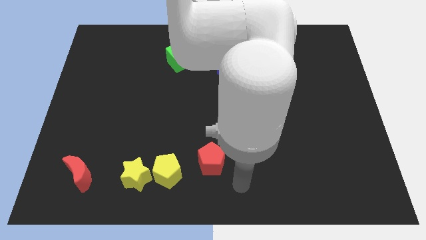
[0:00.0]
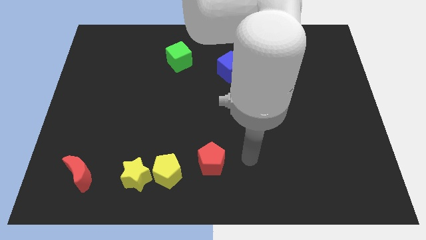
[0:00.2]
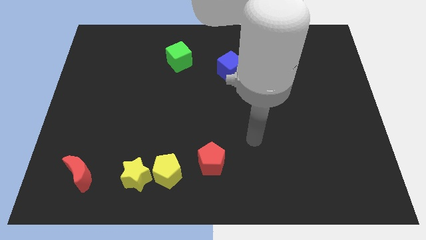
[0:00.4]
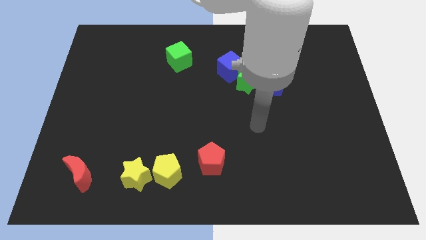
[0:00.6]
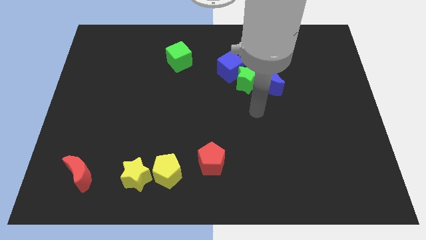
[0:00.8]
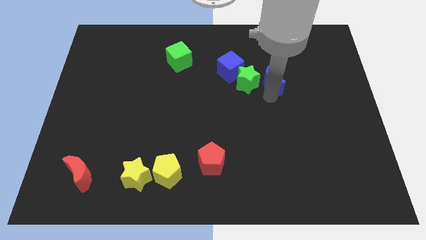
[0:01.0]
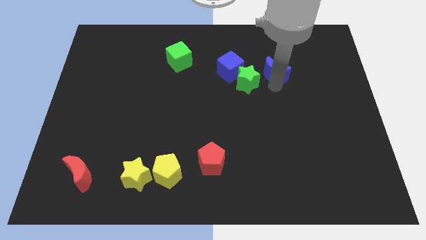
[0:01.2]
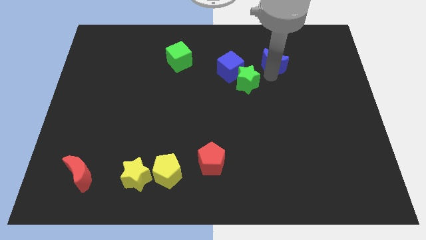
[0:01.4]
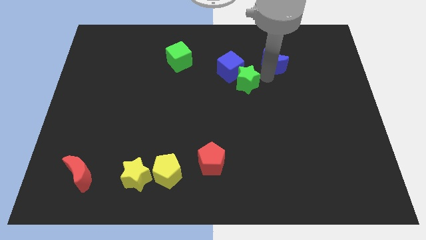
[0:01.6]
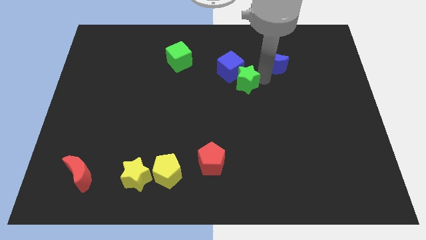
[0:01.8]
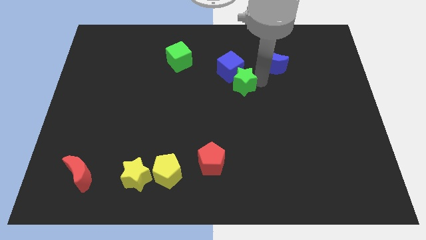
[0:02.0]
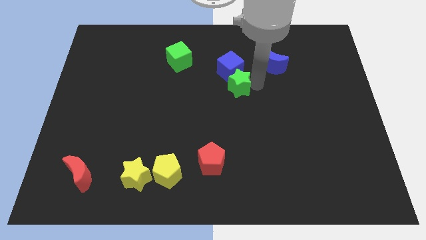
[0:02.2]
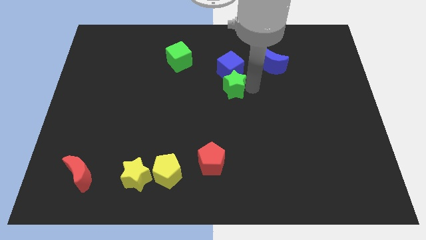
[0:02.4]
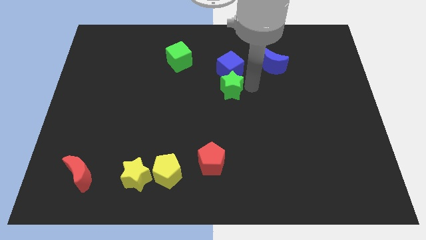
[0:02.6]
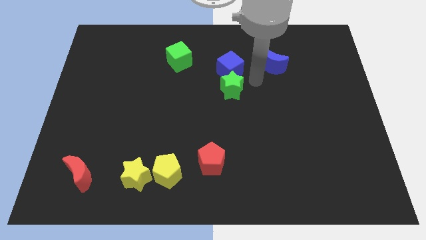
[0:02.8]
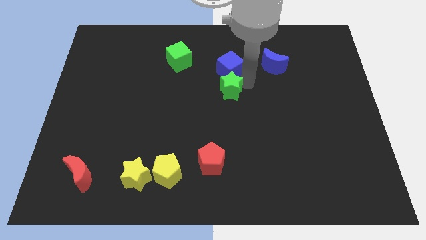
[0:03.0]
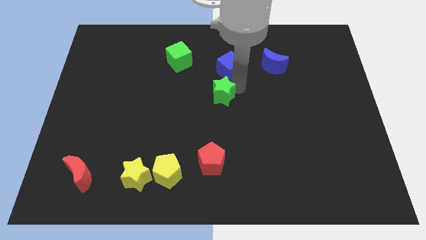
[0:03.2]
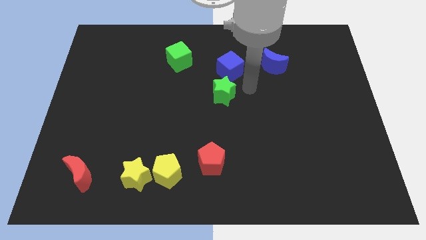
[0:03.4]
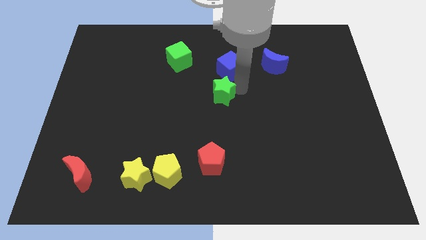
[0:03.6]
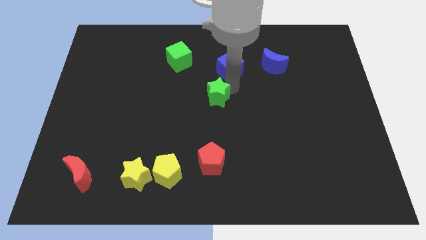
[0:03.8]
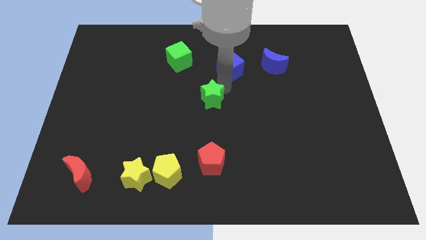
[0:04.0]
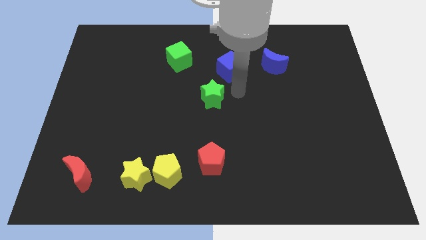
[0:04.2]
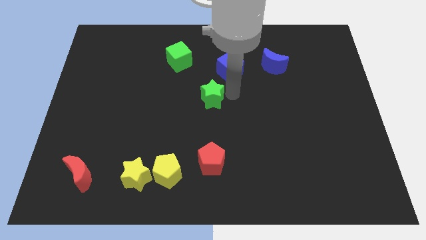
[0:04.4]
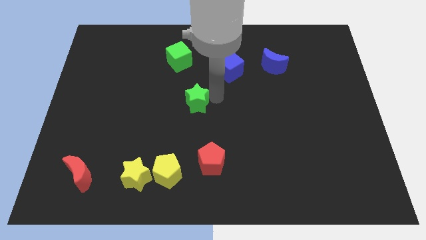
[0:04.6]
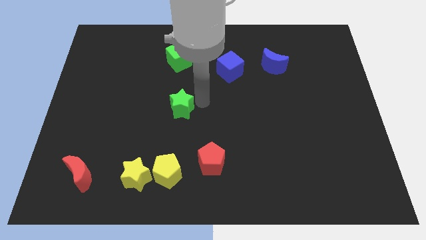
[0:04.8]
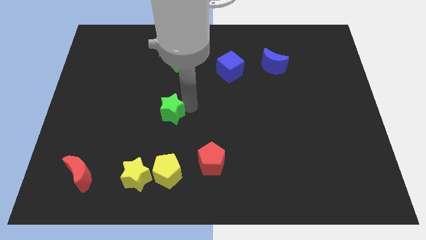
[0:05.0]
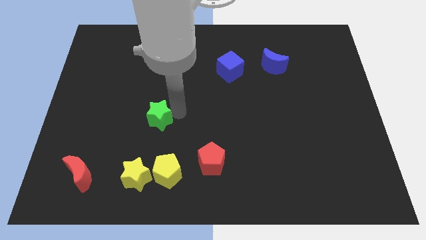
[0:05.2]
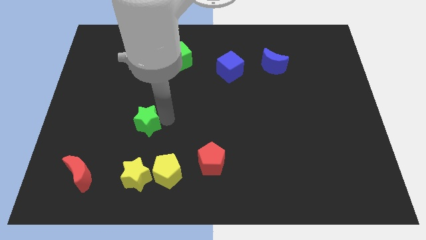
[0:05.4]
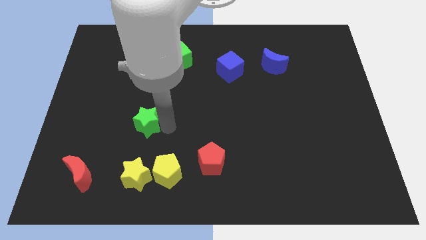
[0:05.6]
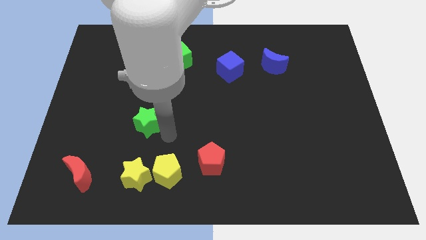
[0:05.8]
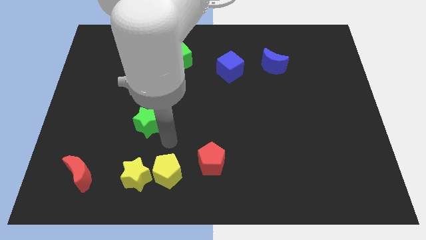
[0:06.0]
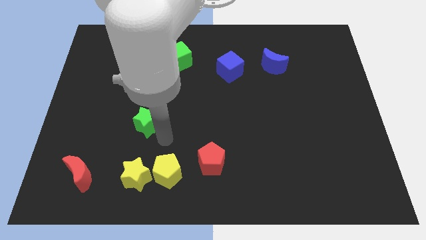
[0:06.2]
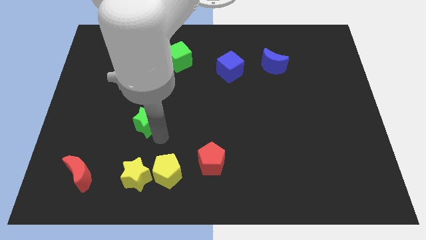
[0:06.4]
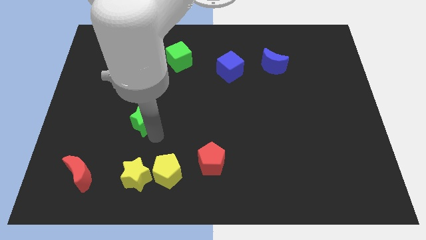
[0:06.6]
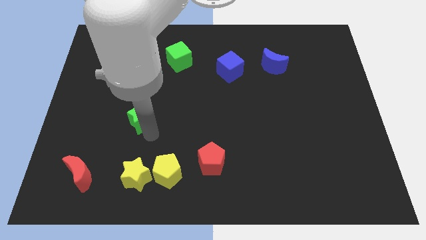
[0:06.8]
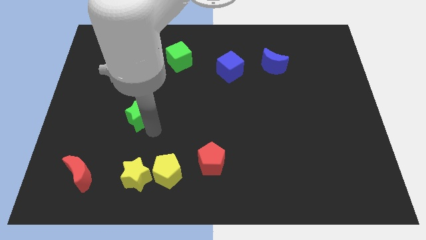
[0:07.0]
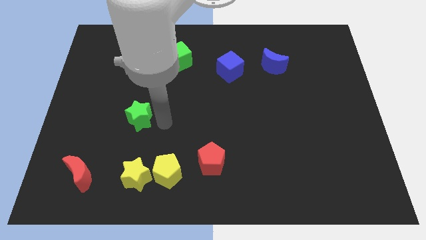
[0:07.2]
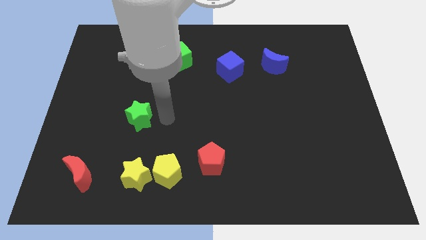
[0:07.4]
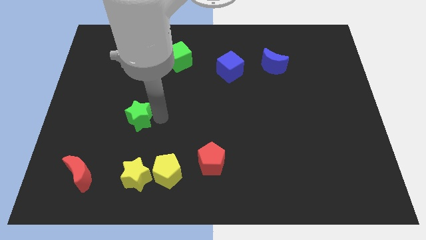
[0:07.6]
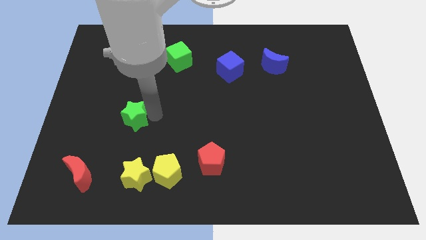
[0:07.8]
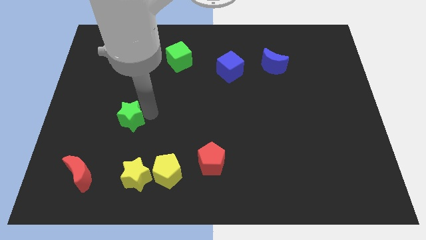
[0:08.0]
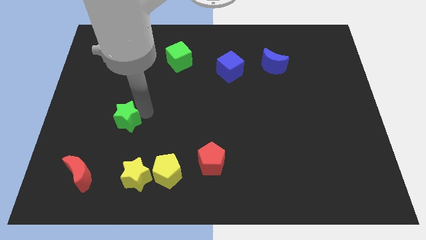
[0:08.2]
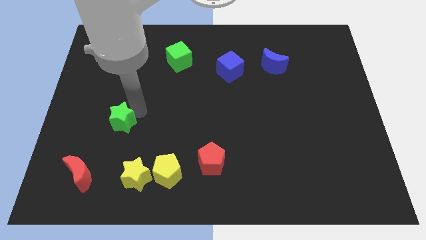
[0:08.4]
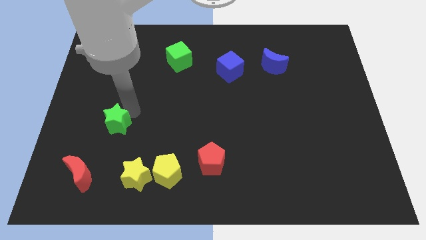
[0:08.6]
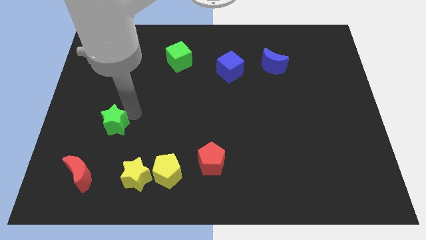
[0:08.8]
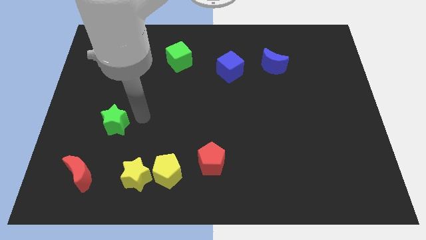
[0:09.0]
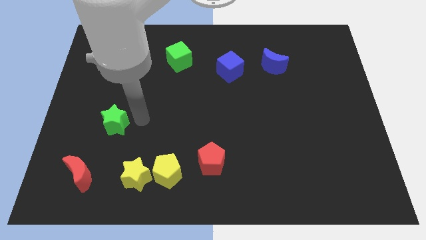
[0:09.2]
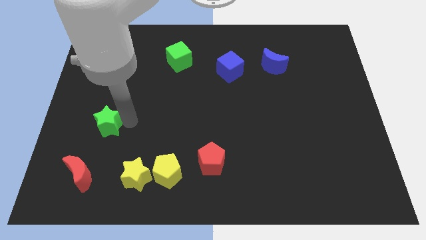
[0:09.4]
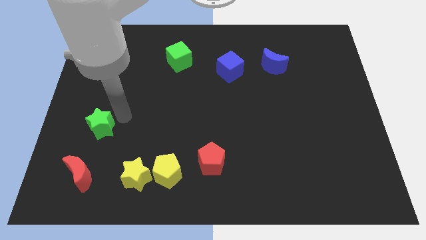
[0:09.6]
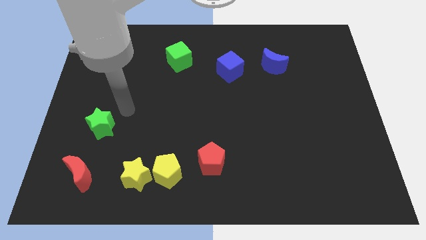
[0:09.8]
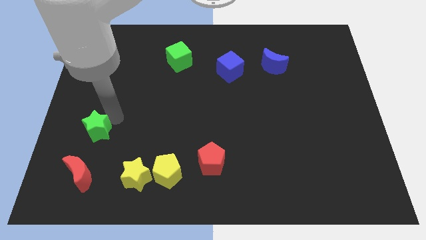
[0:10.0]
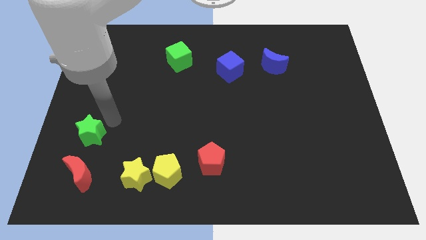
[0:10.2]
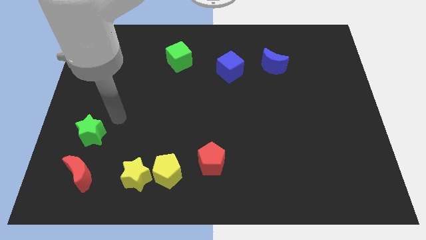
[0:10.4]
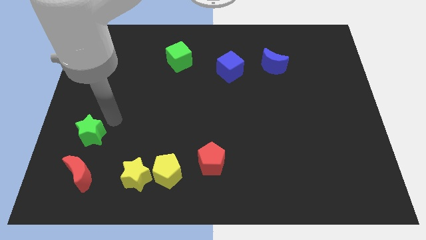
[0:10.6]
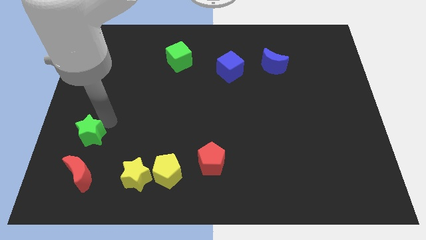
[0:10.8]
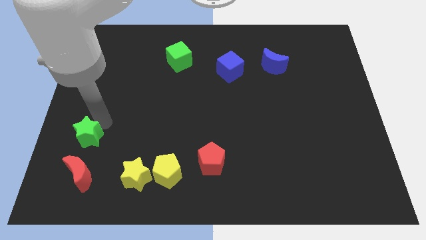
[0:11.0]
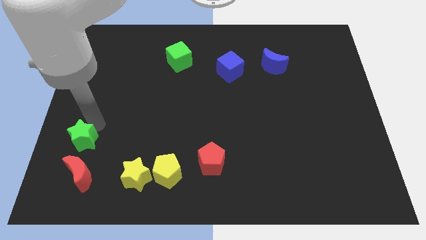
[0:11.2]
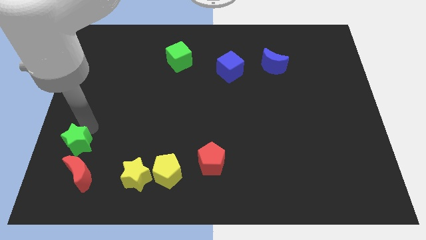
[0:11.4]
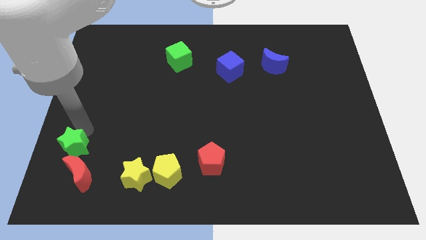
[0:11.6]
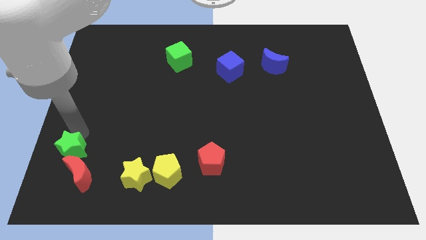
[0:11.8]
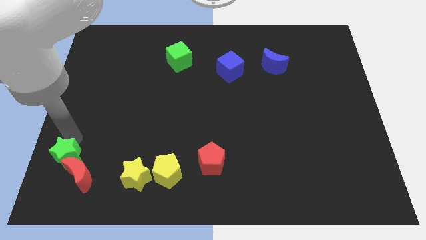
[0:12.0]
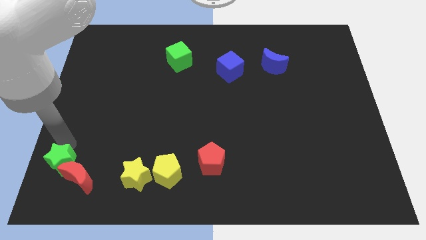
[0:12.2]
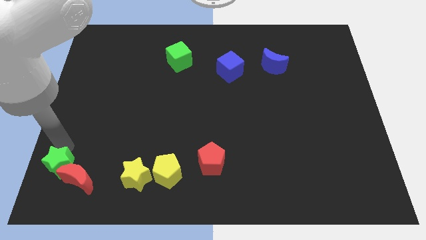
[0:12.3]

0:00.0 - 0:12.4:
put the green star to the bottom left of the board
